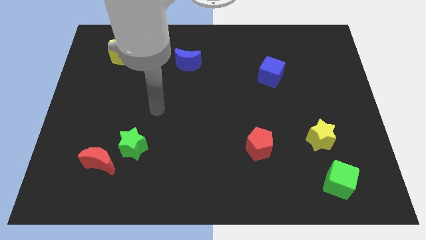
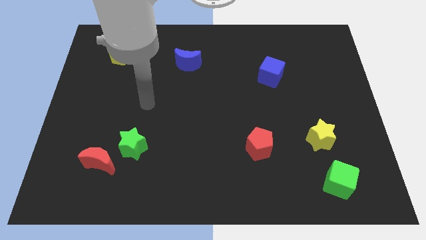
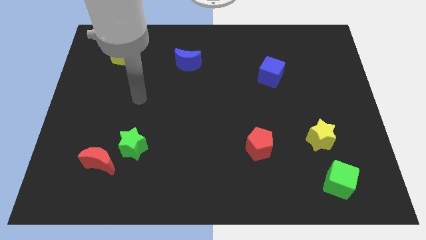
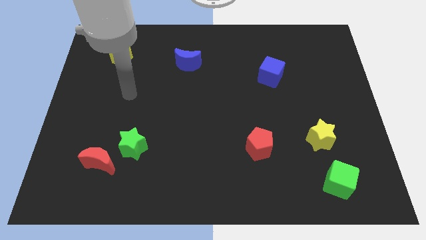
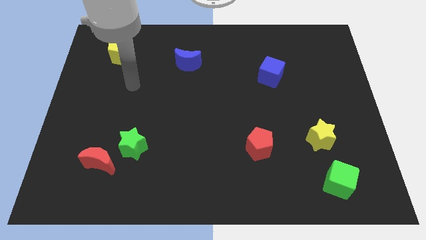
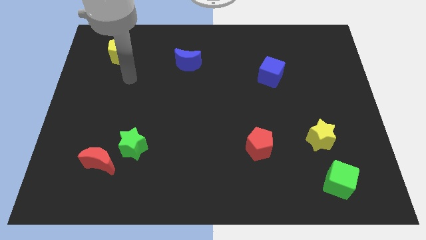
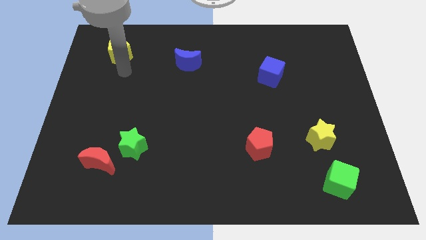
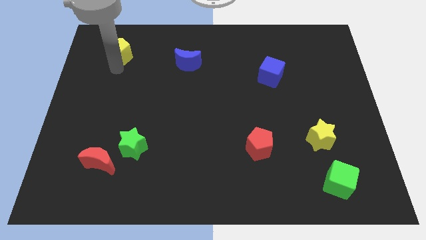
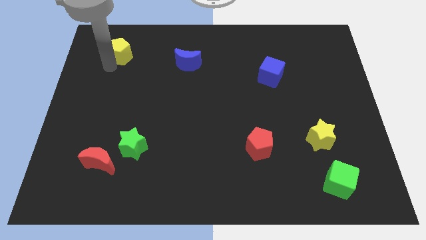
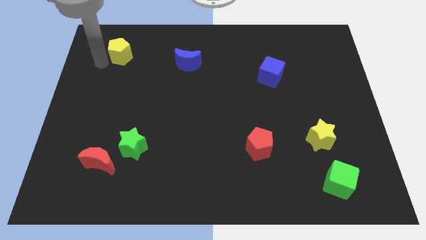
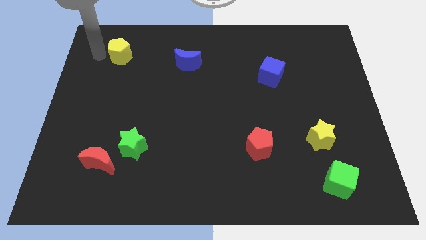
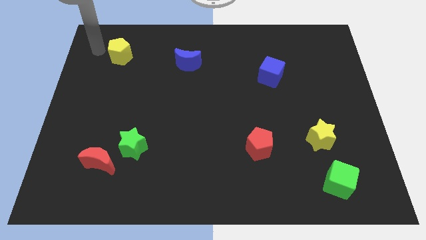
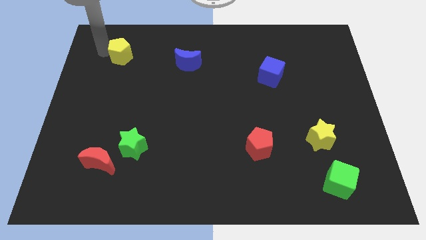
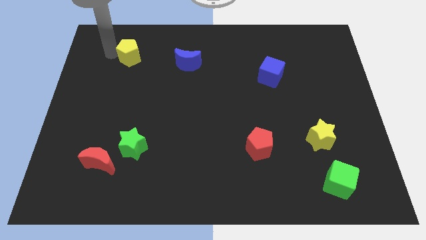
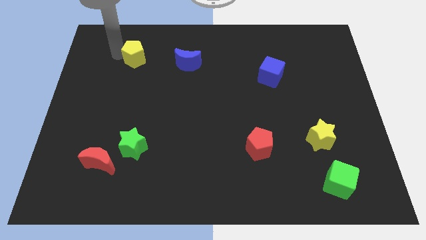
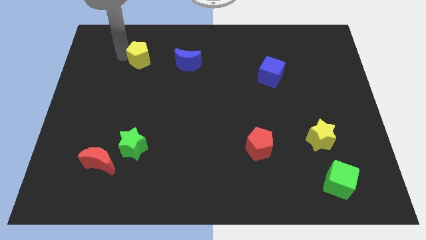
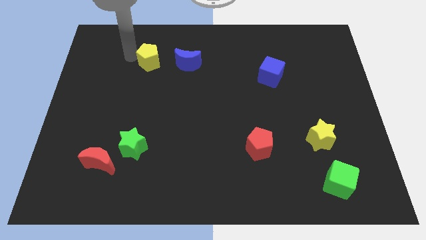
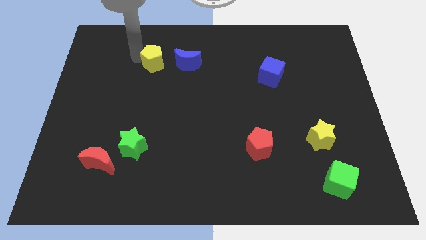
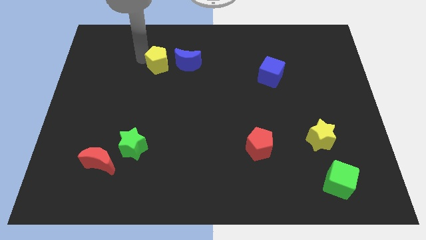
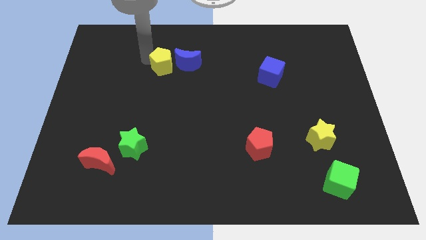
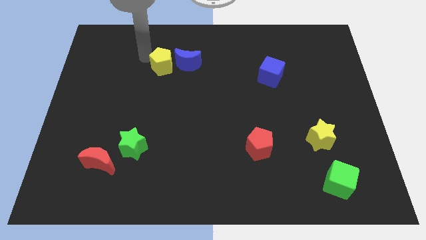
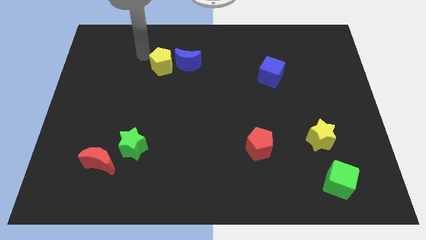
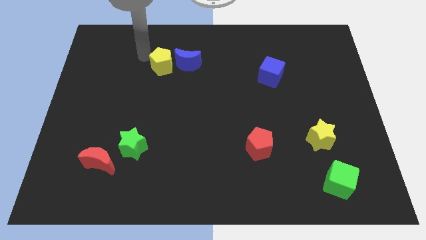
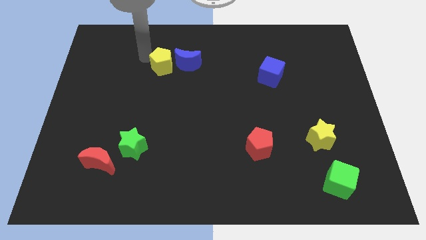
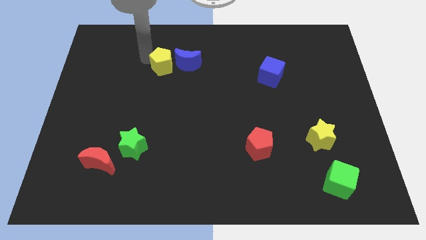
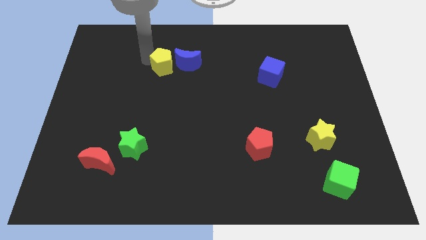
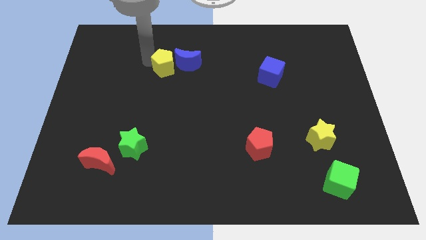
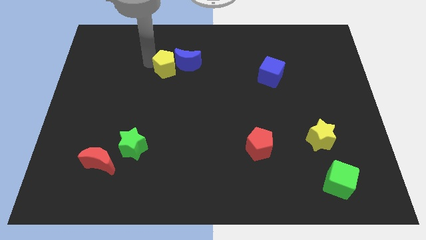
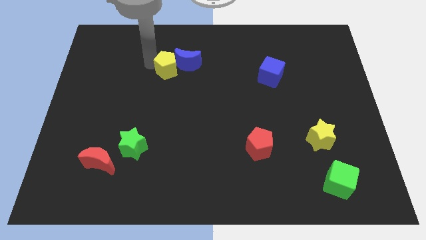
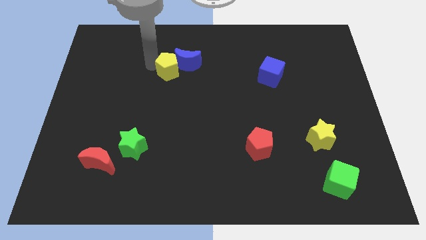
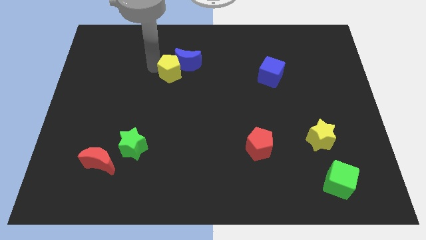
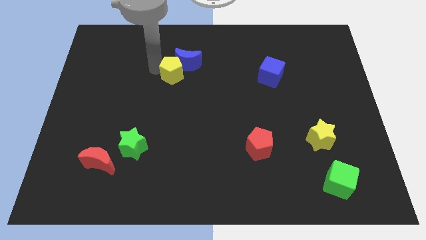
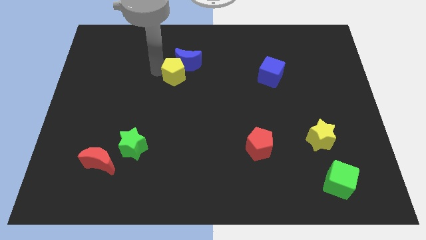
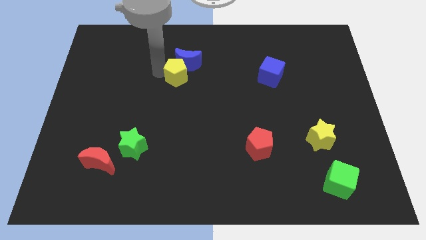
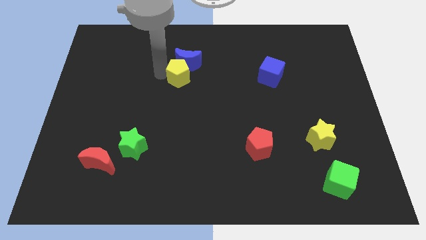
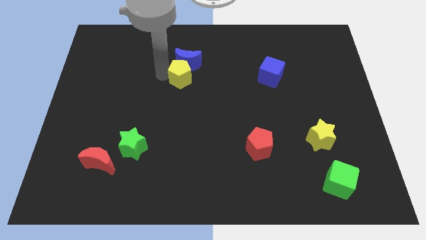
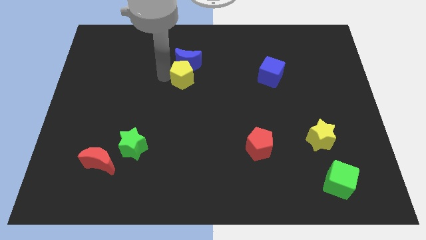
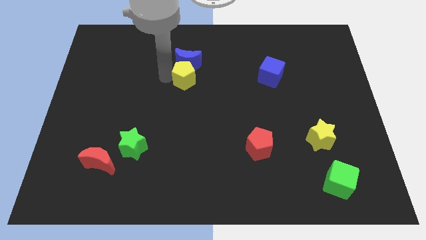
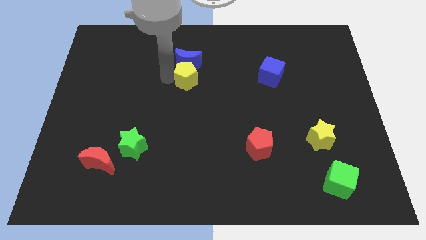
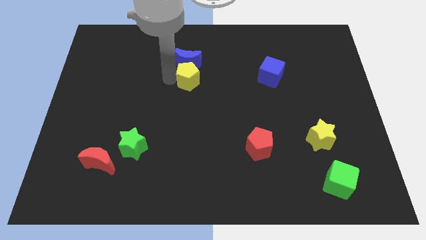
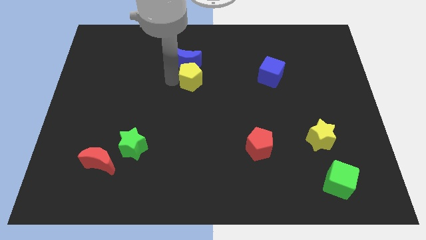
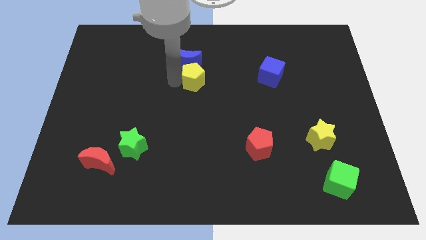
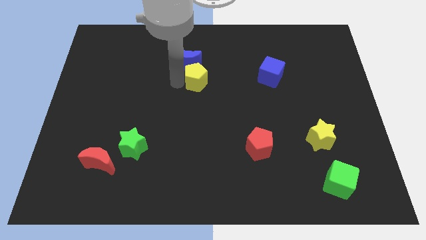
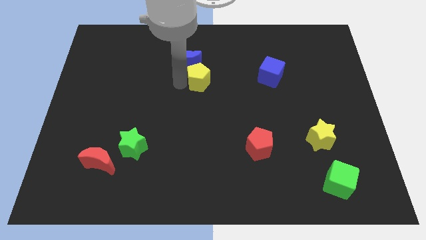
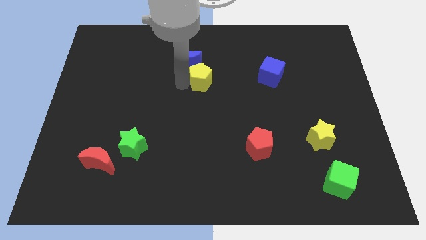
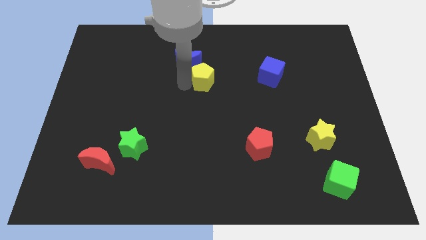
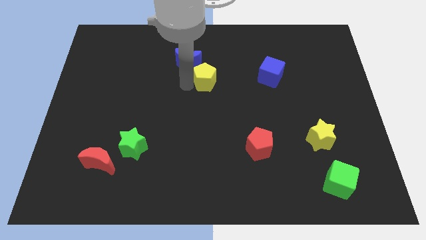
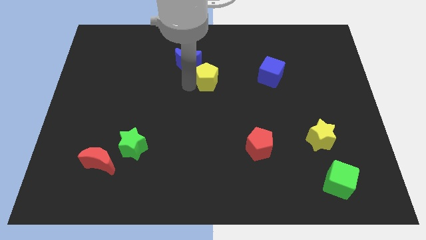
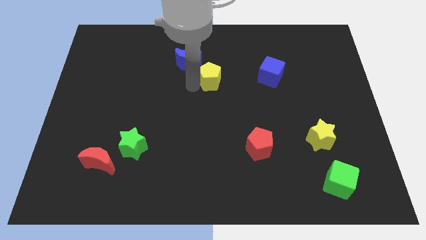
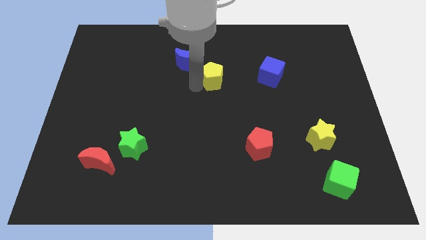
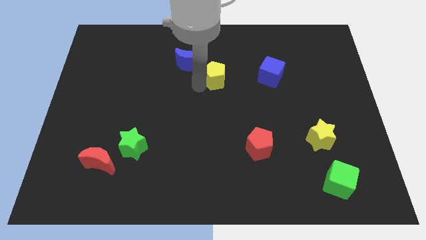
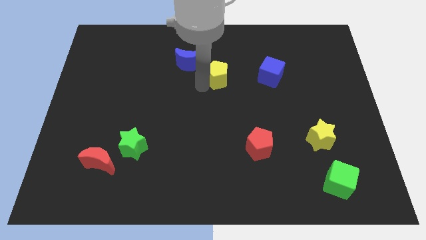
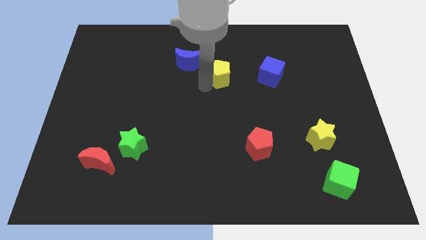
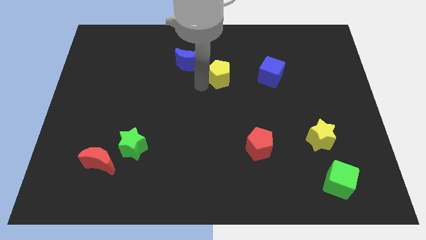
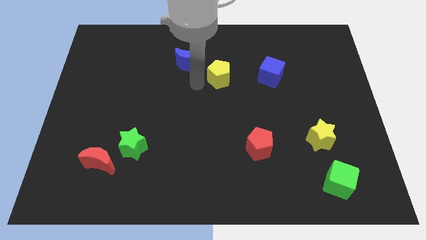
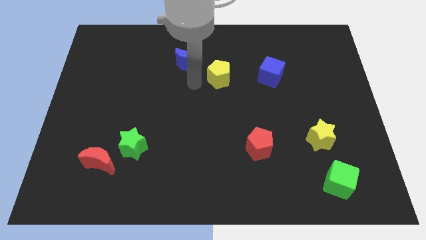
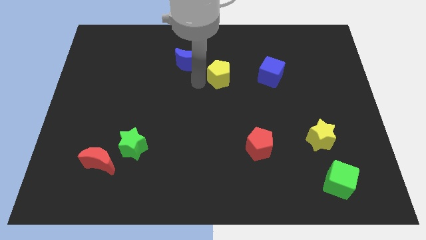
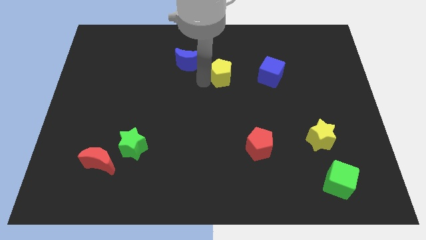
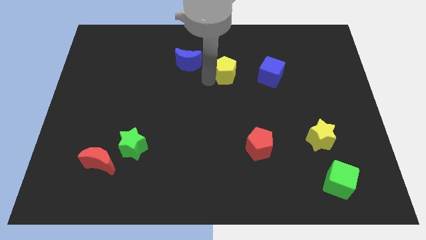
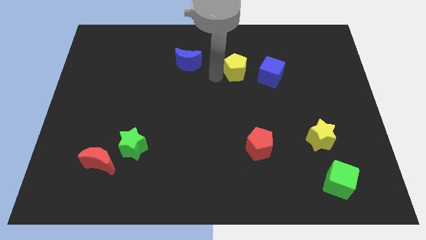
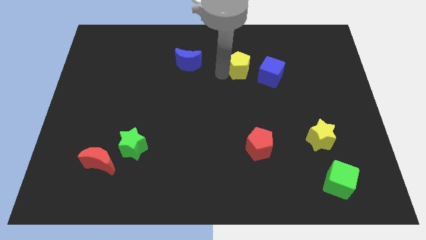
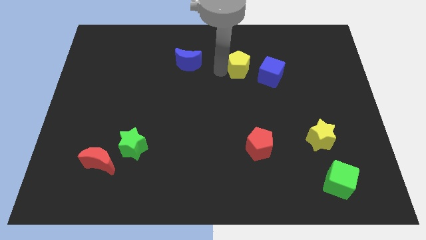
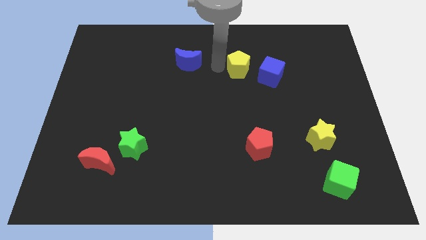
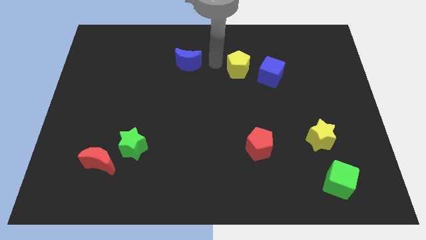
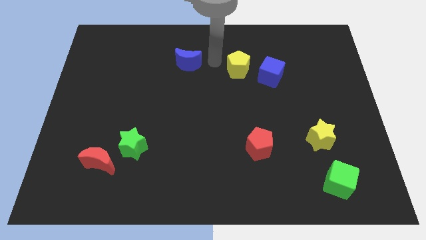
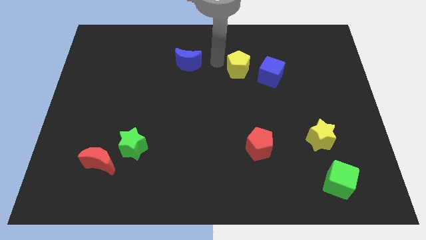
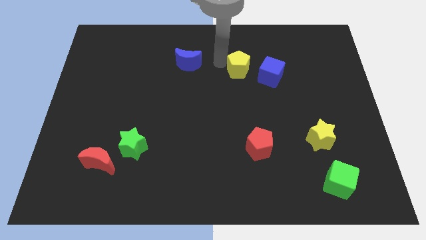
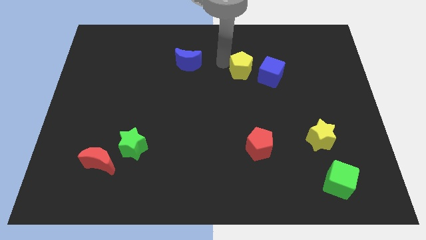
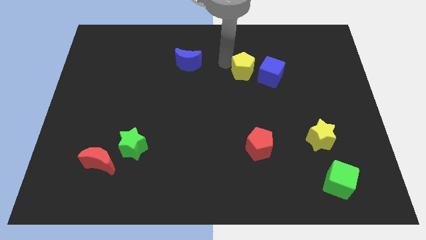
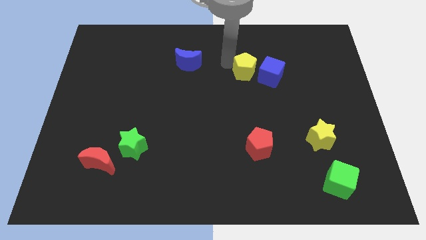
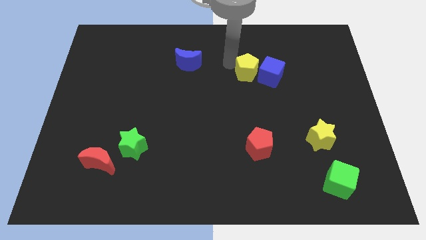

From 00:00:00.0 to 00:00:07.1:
push the yellow pentagon to the blue cube
